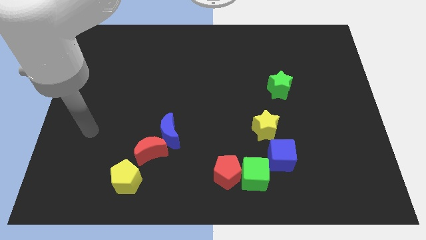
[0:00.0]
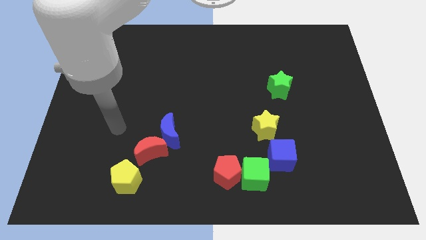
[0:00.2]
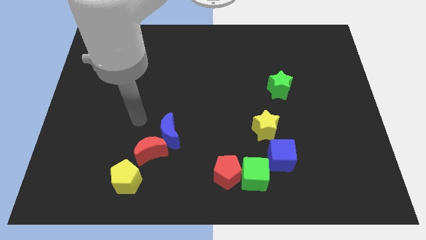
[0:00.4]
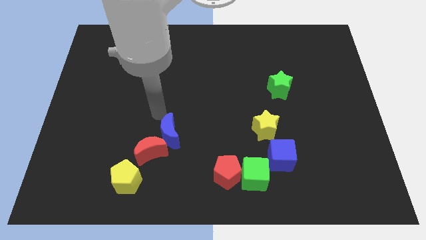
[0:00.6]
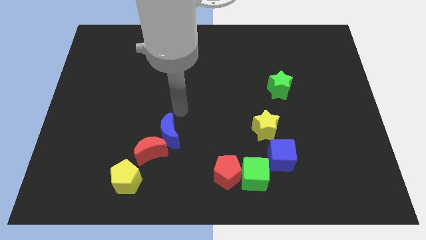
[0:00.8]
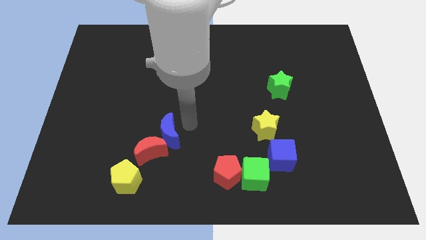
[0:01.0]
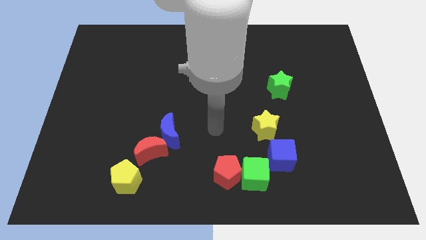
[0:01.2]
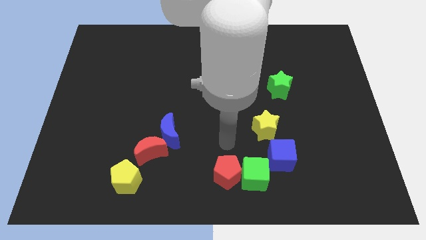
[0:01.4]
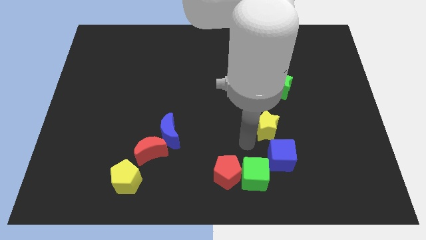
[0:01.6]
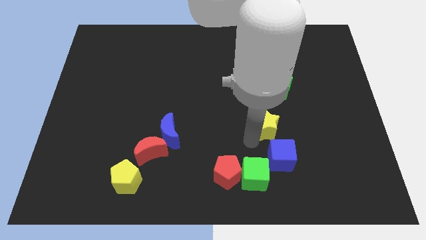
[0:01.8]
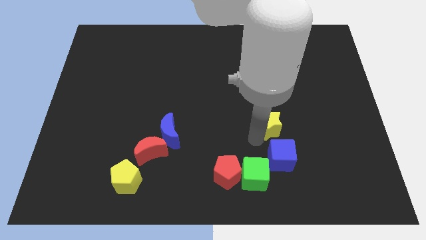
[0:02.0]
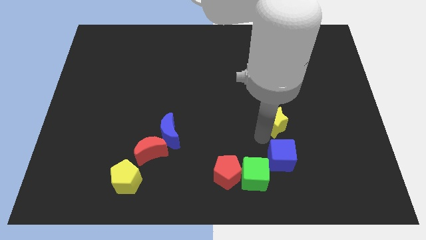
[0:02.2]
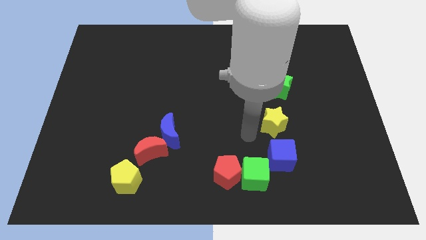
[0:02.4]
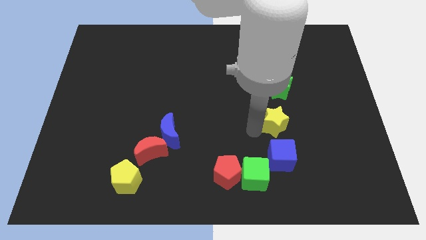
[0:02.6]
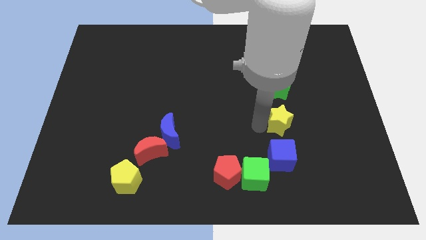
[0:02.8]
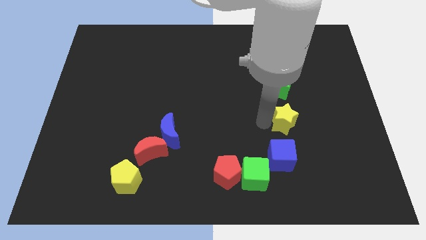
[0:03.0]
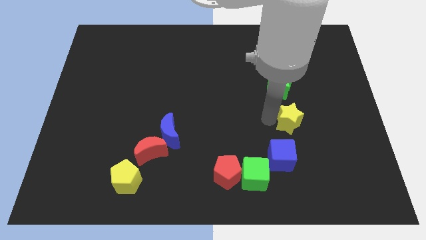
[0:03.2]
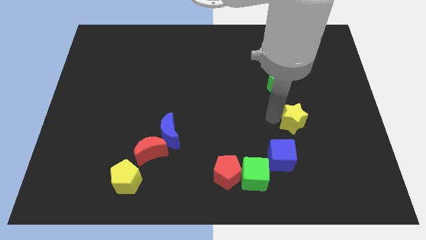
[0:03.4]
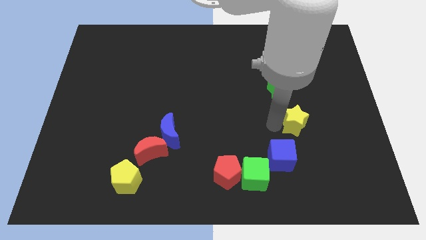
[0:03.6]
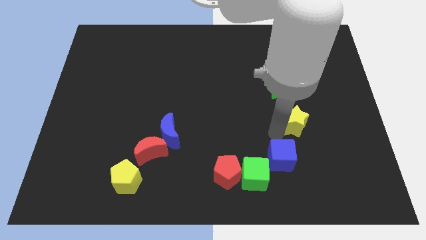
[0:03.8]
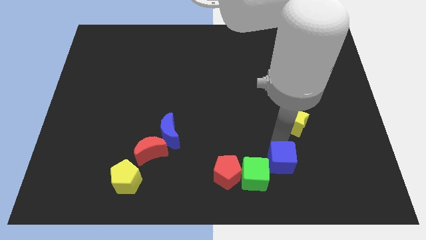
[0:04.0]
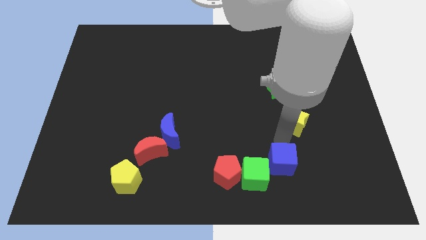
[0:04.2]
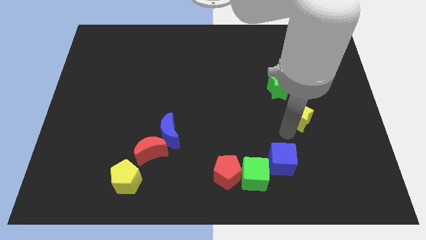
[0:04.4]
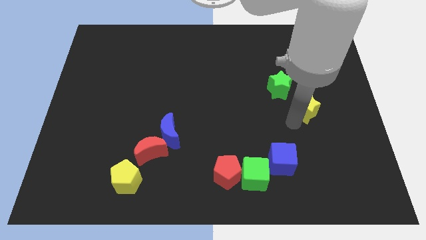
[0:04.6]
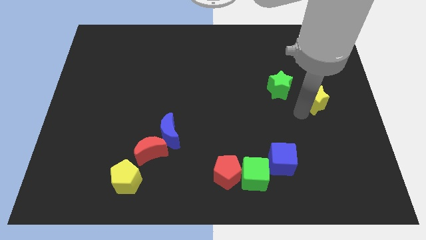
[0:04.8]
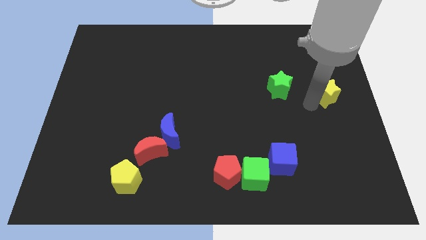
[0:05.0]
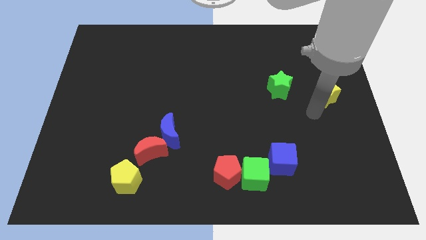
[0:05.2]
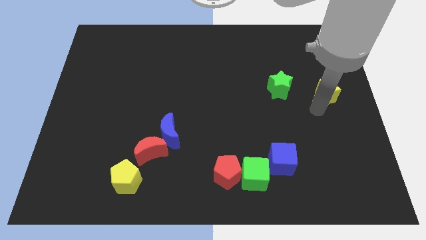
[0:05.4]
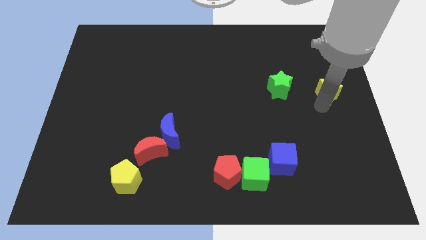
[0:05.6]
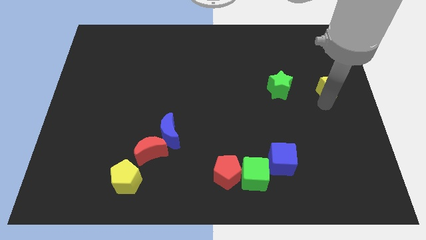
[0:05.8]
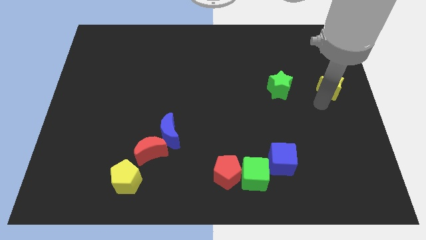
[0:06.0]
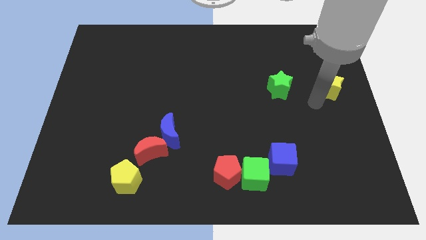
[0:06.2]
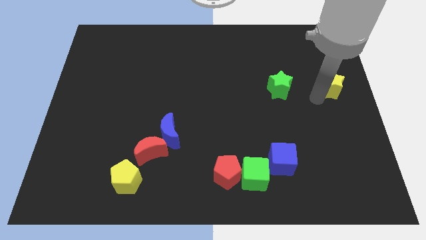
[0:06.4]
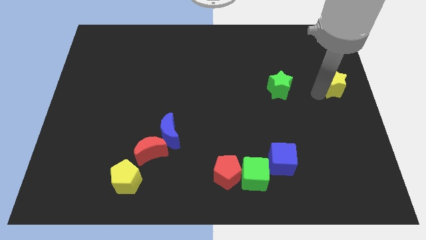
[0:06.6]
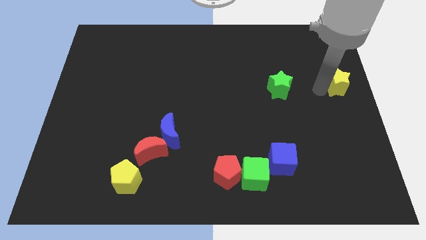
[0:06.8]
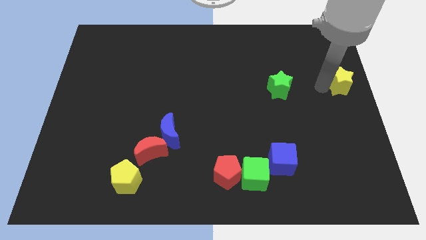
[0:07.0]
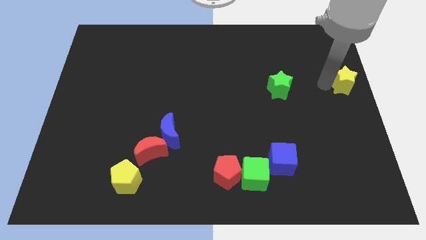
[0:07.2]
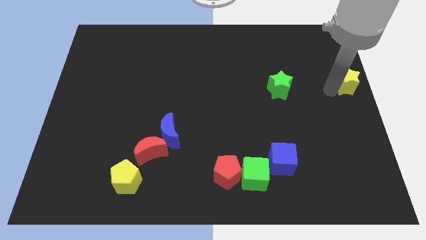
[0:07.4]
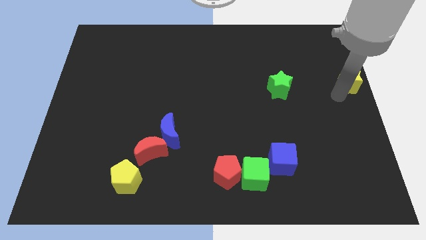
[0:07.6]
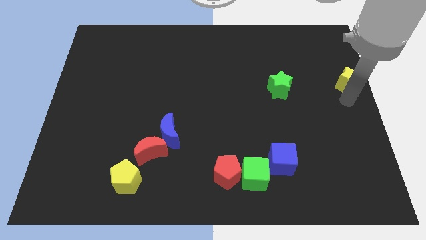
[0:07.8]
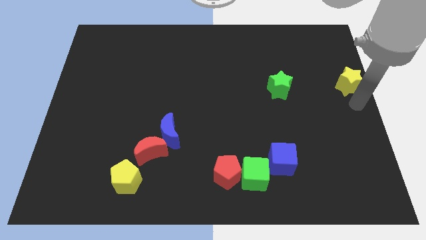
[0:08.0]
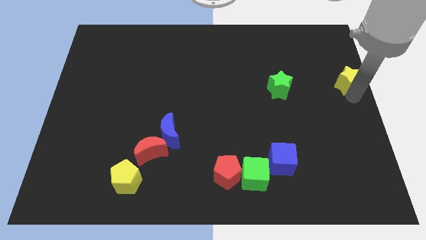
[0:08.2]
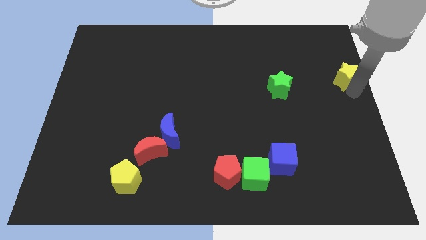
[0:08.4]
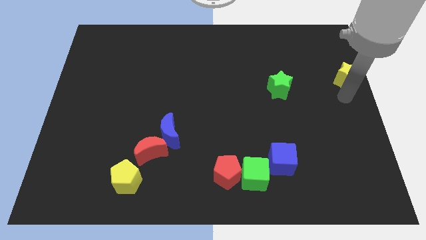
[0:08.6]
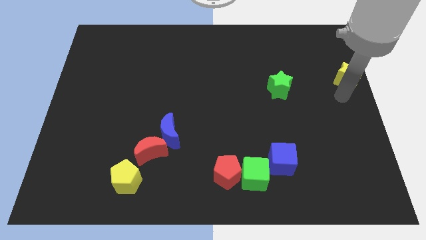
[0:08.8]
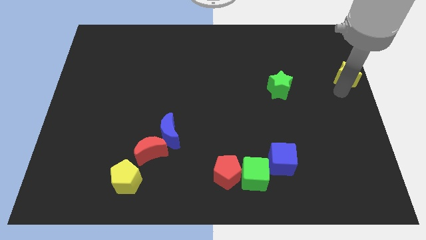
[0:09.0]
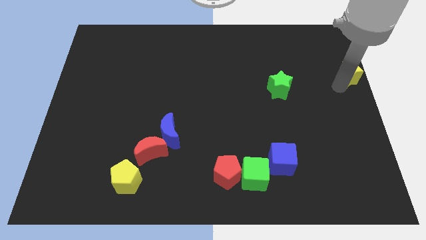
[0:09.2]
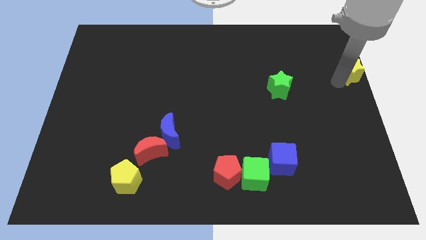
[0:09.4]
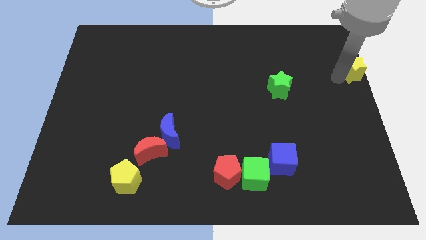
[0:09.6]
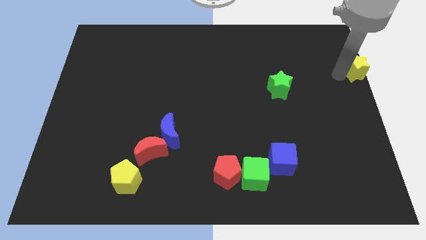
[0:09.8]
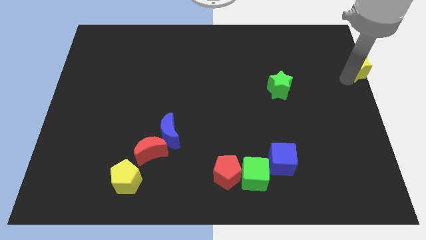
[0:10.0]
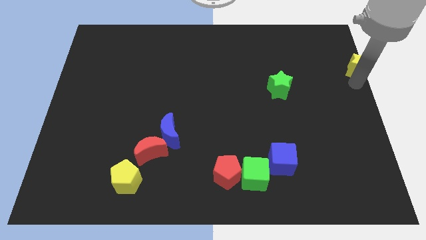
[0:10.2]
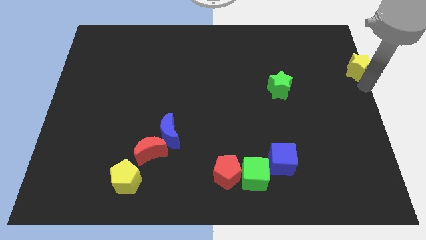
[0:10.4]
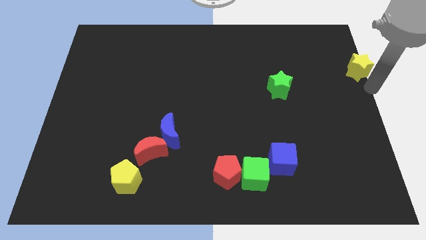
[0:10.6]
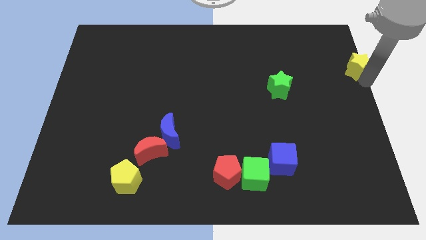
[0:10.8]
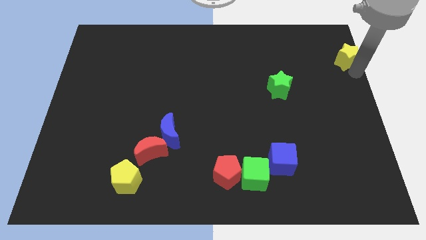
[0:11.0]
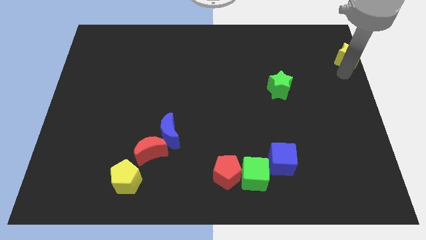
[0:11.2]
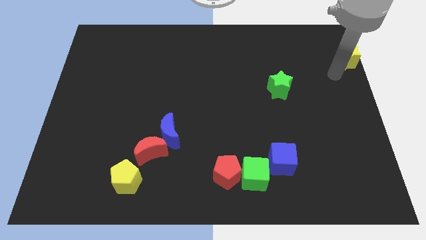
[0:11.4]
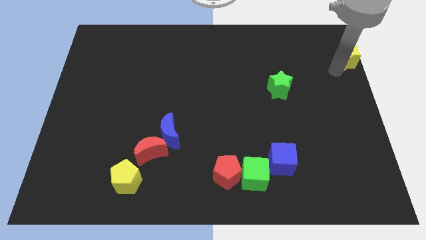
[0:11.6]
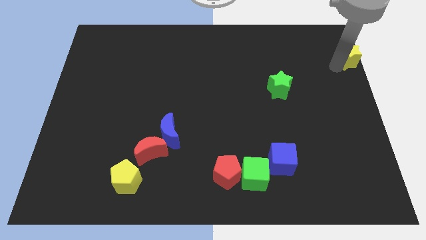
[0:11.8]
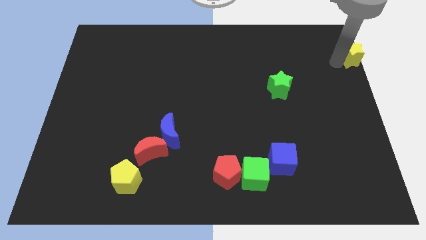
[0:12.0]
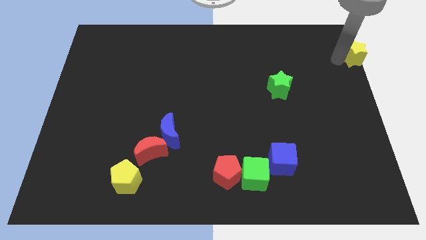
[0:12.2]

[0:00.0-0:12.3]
push the yellow star to the top right of the board
